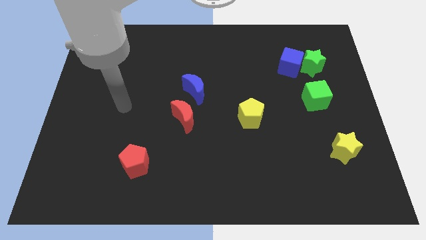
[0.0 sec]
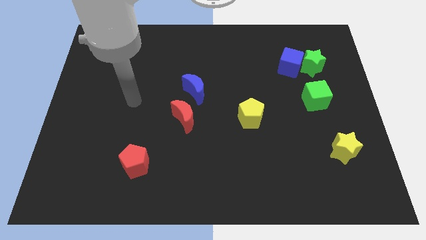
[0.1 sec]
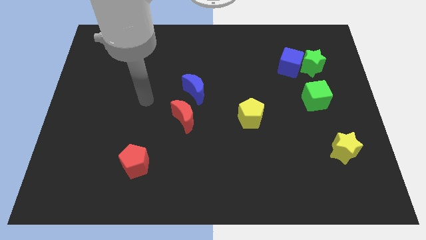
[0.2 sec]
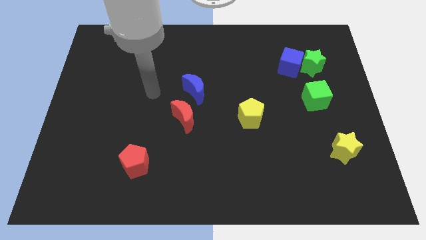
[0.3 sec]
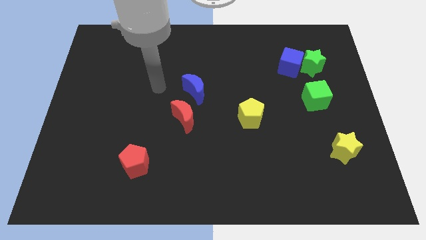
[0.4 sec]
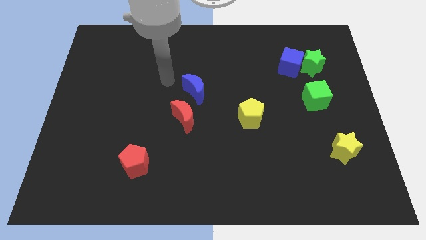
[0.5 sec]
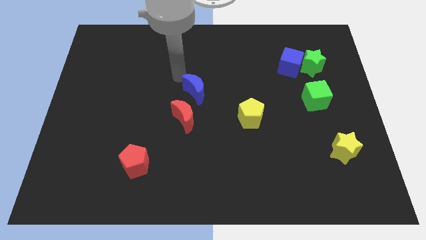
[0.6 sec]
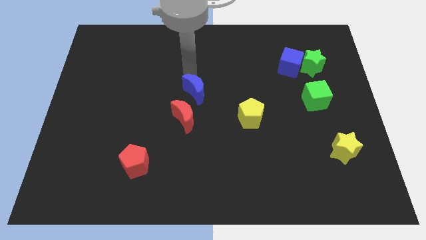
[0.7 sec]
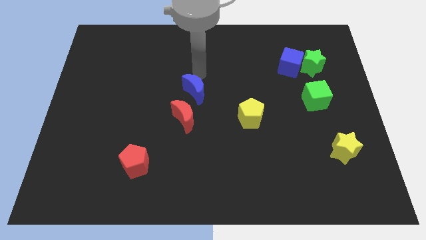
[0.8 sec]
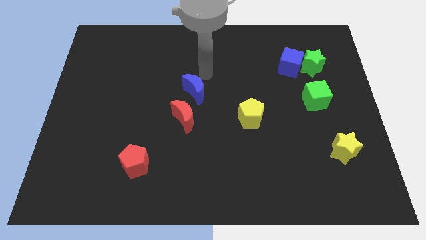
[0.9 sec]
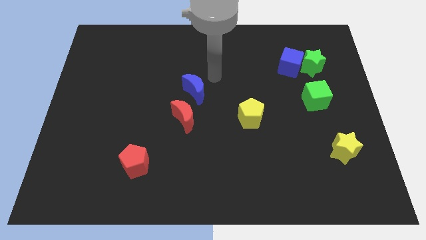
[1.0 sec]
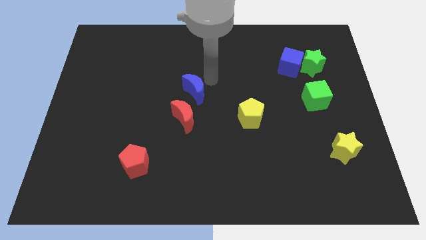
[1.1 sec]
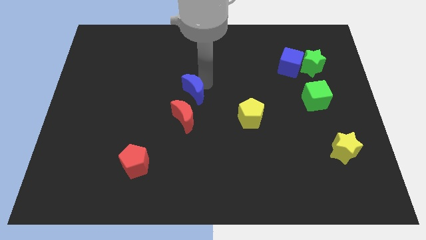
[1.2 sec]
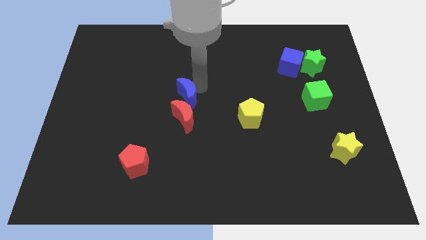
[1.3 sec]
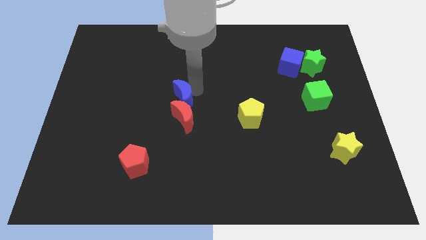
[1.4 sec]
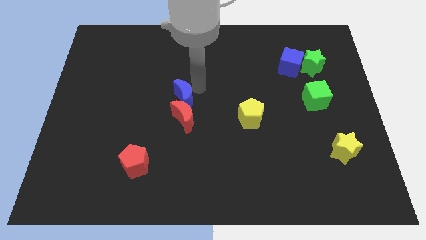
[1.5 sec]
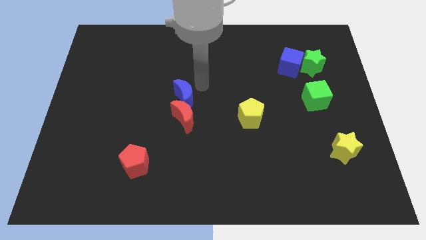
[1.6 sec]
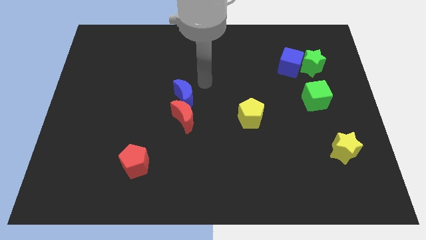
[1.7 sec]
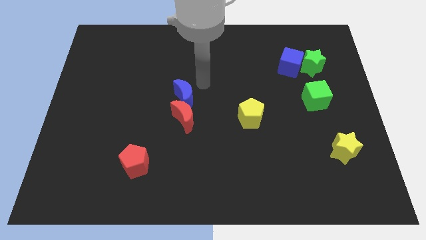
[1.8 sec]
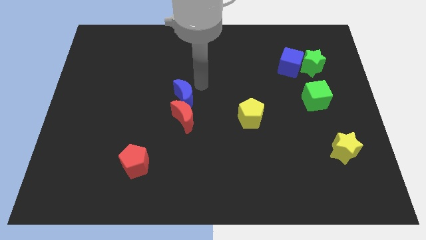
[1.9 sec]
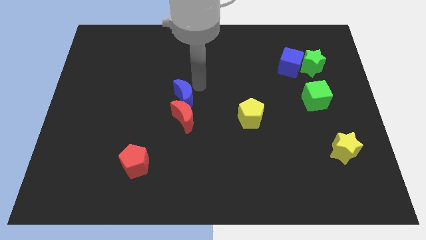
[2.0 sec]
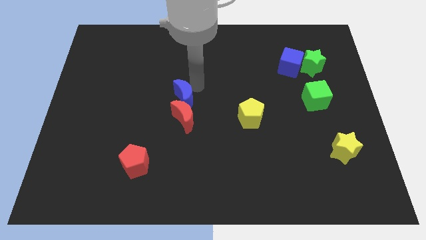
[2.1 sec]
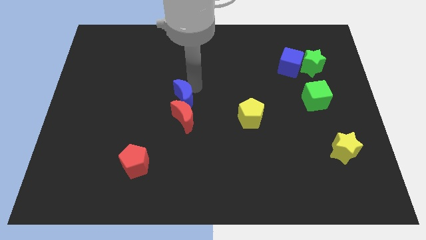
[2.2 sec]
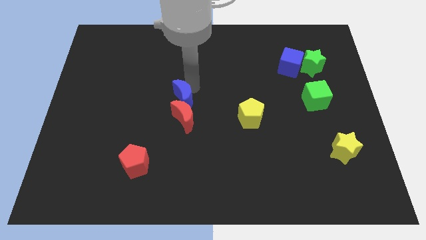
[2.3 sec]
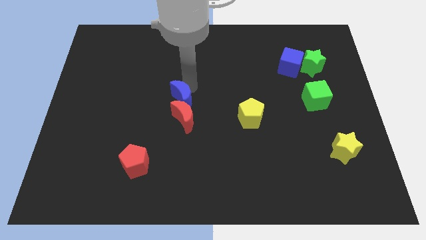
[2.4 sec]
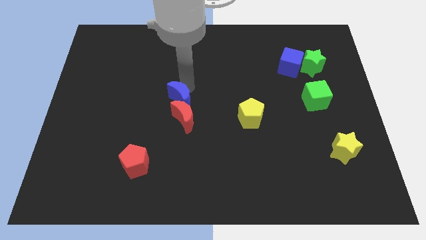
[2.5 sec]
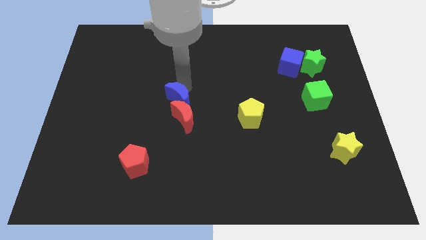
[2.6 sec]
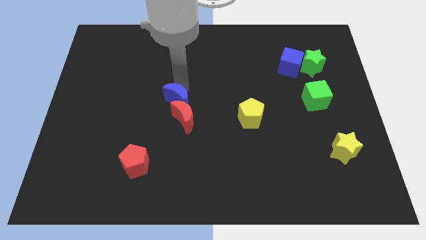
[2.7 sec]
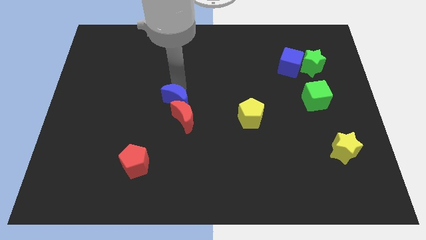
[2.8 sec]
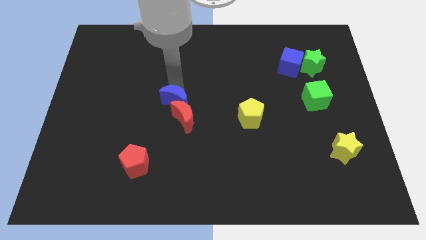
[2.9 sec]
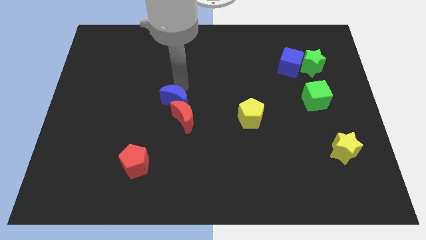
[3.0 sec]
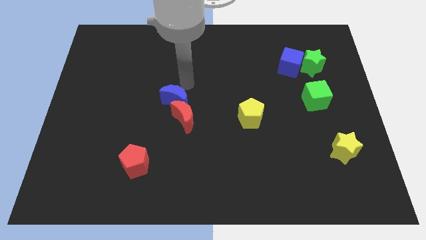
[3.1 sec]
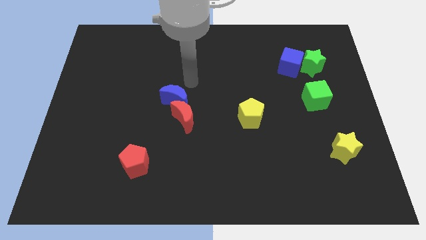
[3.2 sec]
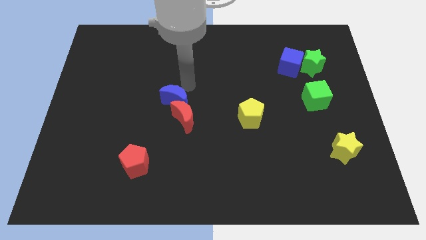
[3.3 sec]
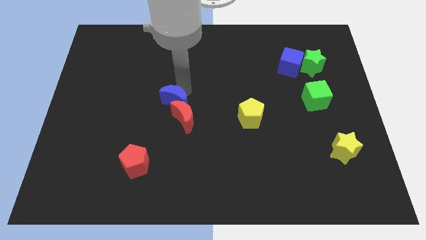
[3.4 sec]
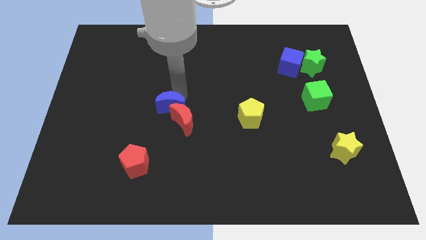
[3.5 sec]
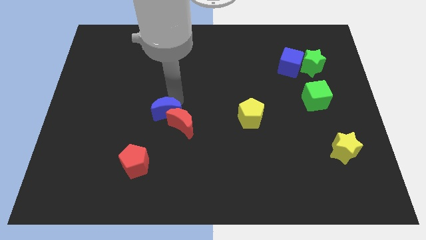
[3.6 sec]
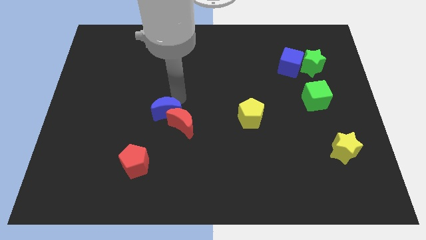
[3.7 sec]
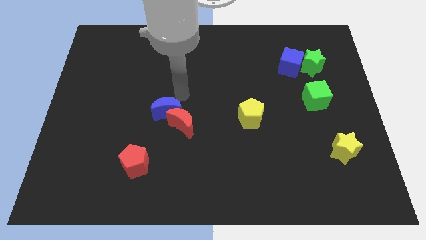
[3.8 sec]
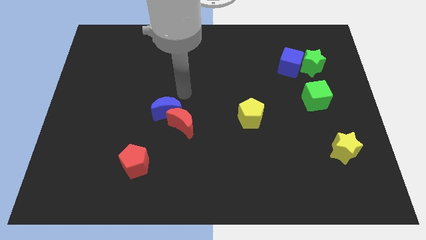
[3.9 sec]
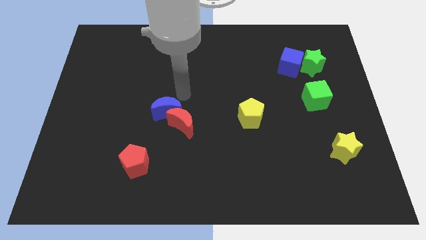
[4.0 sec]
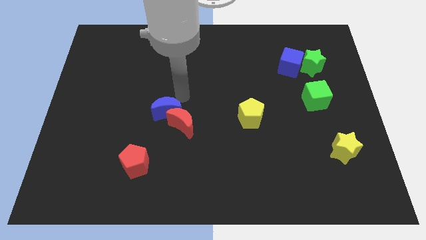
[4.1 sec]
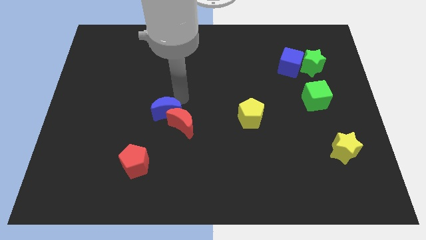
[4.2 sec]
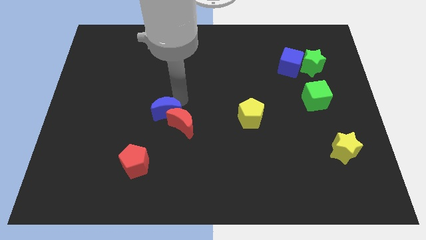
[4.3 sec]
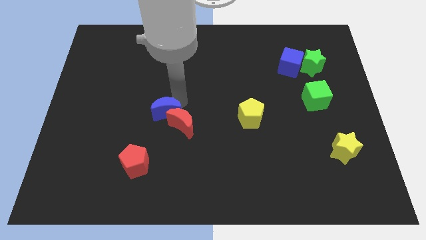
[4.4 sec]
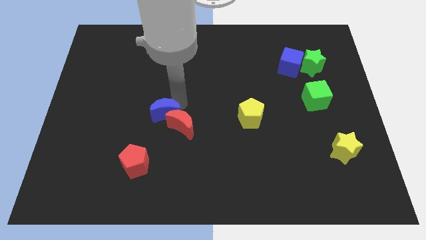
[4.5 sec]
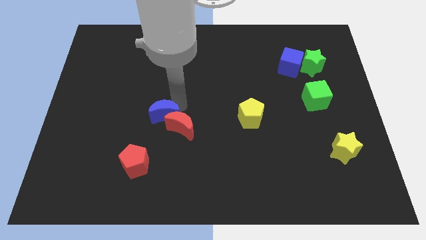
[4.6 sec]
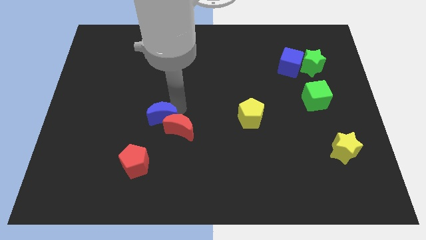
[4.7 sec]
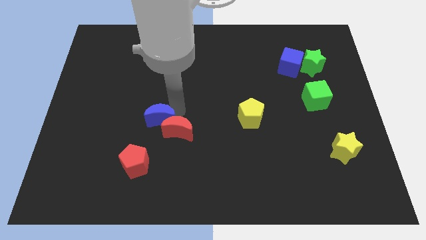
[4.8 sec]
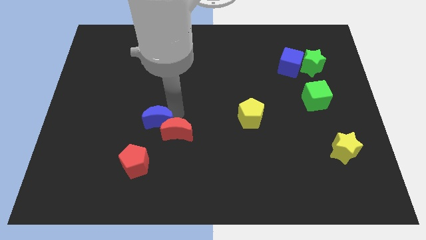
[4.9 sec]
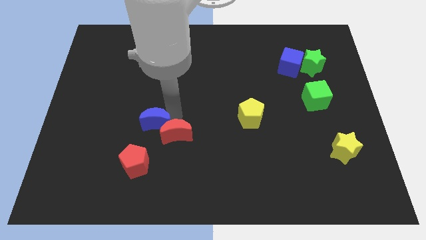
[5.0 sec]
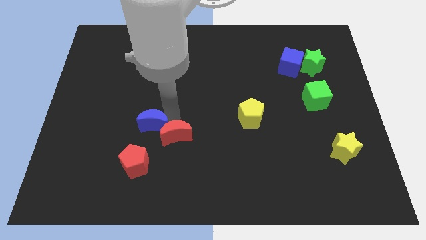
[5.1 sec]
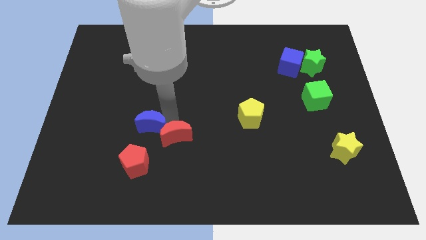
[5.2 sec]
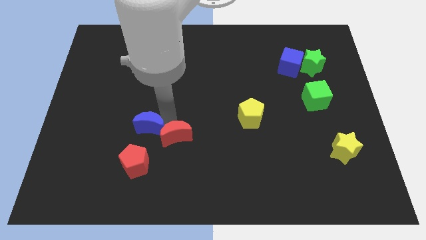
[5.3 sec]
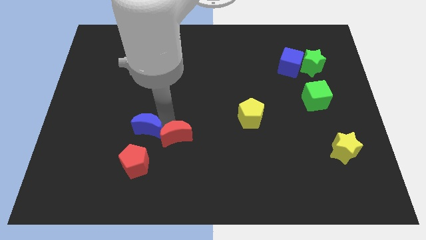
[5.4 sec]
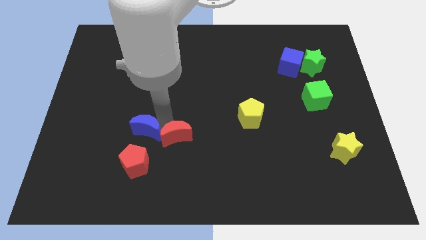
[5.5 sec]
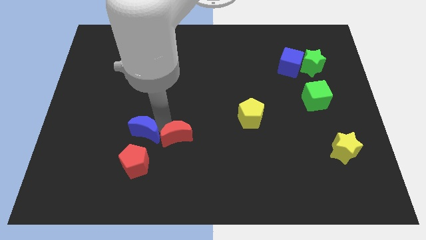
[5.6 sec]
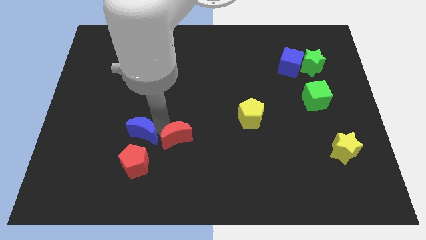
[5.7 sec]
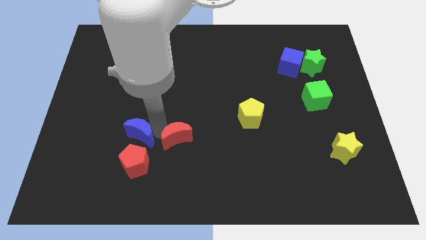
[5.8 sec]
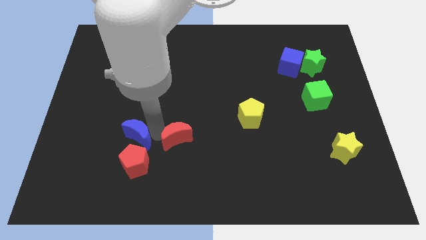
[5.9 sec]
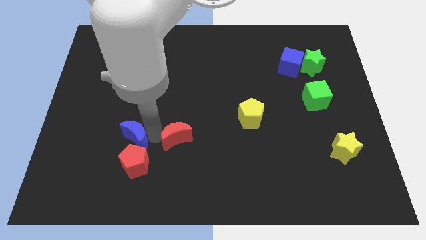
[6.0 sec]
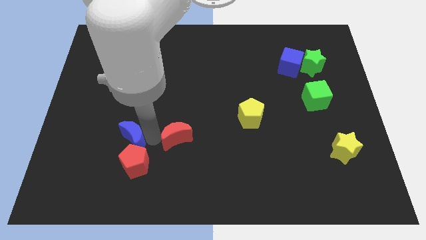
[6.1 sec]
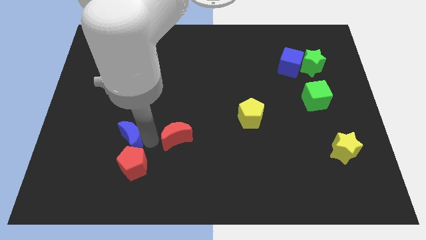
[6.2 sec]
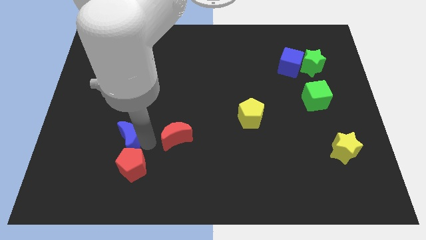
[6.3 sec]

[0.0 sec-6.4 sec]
push the blue moon down and then left

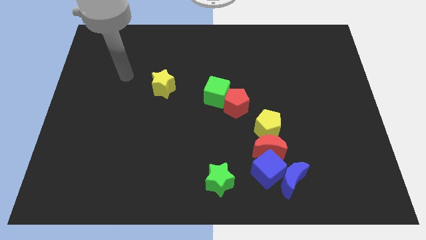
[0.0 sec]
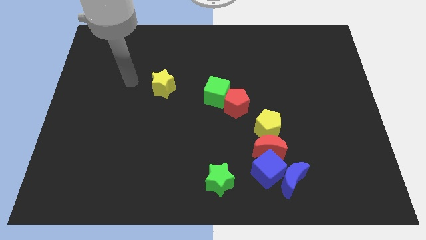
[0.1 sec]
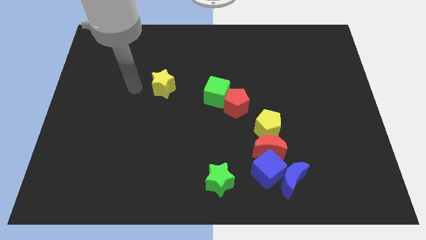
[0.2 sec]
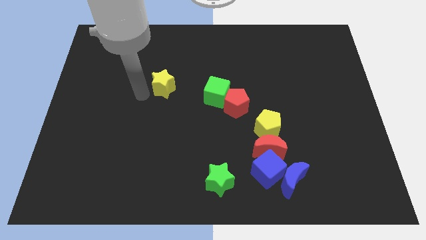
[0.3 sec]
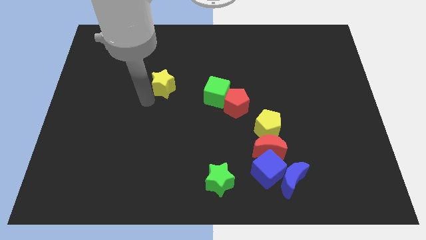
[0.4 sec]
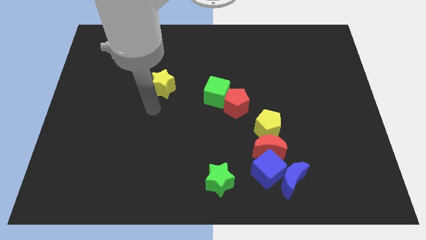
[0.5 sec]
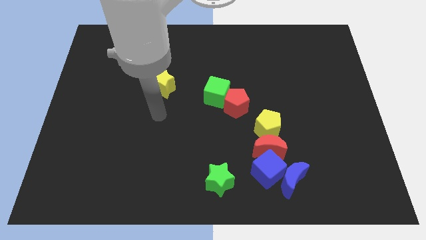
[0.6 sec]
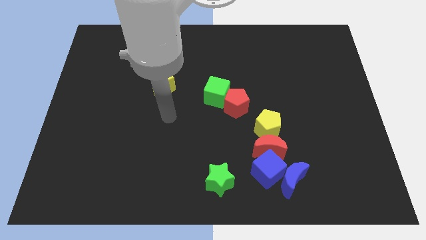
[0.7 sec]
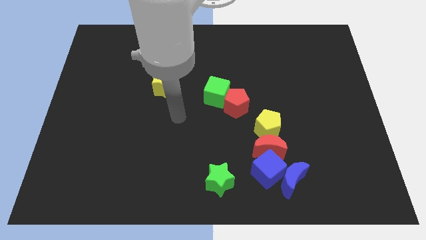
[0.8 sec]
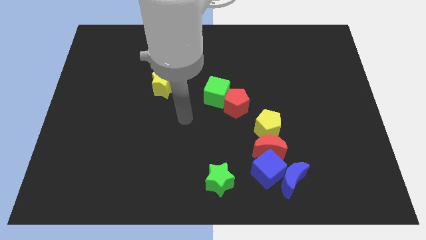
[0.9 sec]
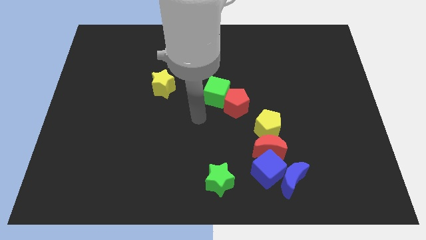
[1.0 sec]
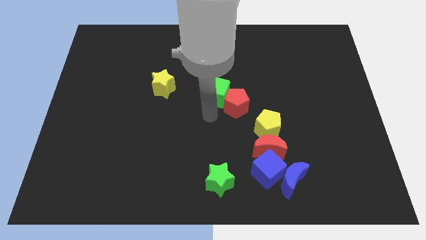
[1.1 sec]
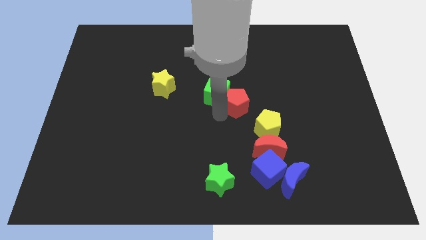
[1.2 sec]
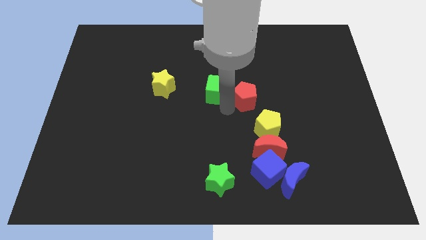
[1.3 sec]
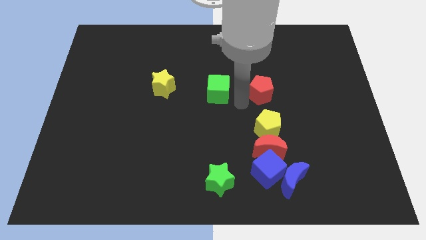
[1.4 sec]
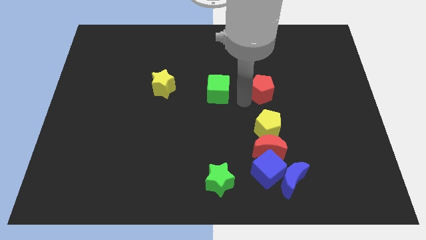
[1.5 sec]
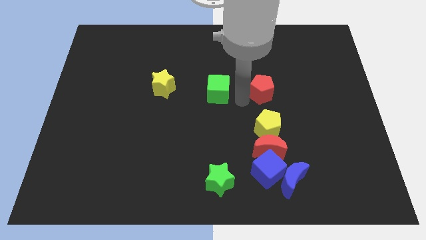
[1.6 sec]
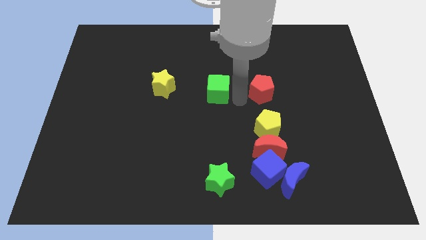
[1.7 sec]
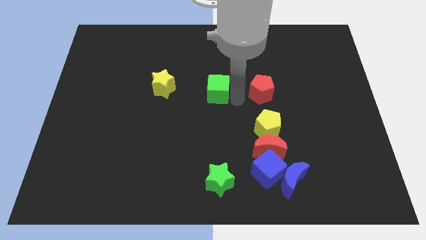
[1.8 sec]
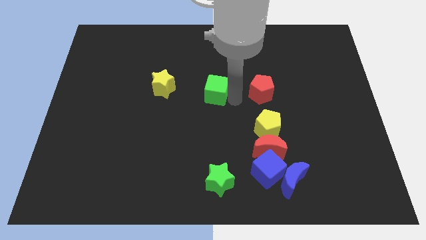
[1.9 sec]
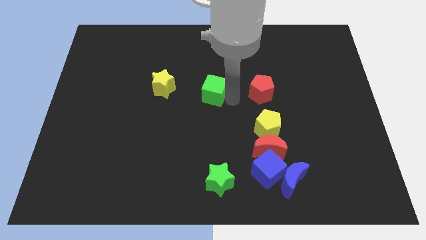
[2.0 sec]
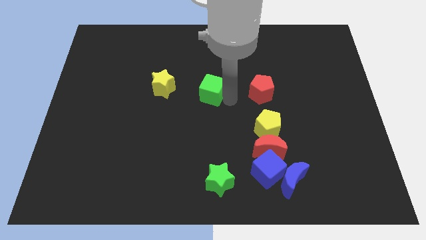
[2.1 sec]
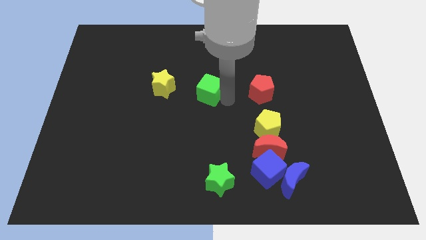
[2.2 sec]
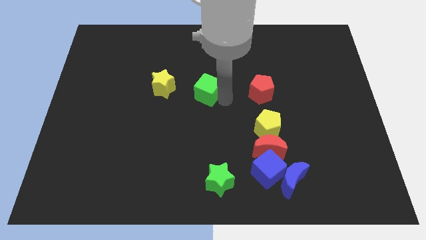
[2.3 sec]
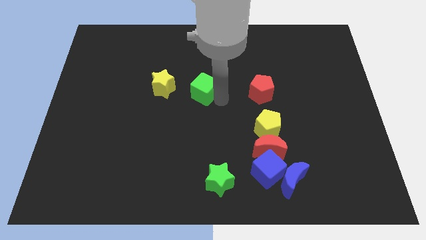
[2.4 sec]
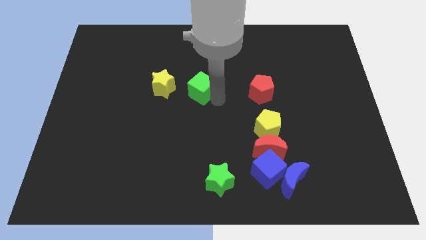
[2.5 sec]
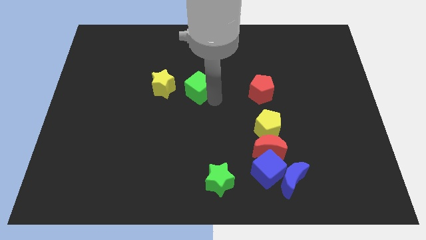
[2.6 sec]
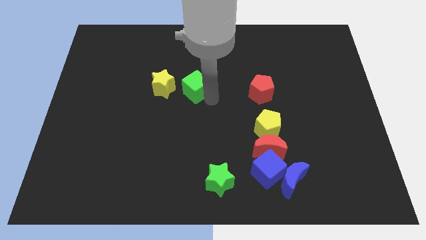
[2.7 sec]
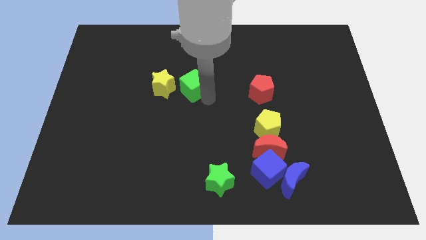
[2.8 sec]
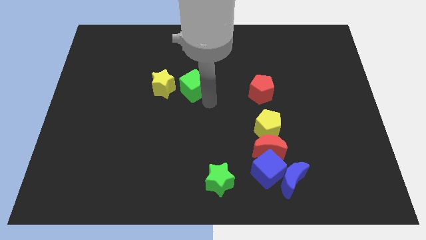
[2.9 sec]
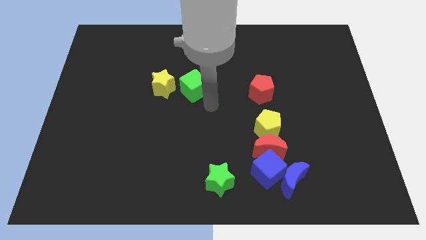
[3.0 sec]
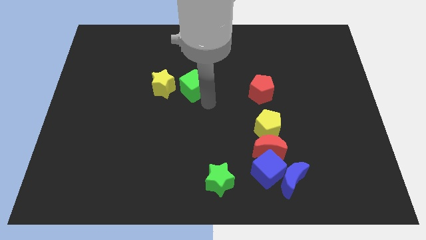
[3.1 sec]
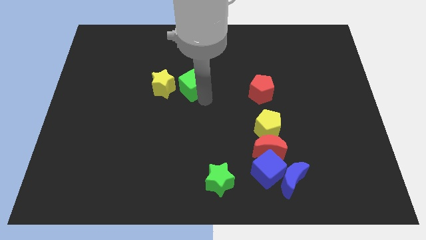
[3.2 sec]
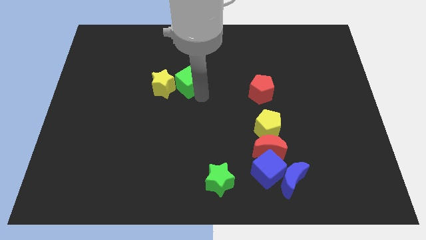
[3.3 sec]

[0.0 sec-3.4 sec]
slide the green cube upwards and to the left diagonally slightly
